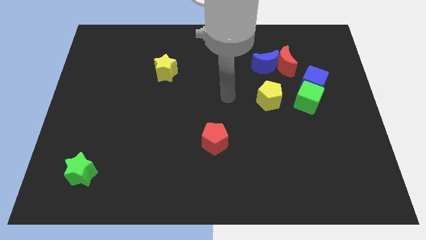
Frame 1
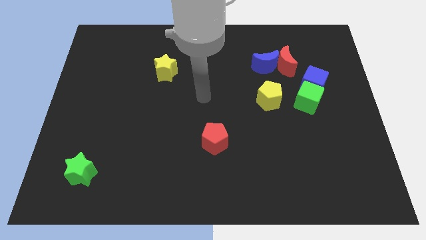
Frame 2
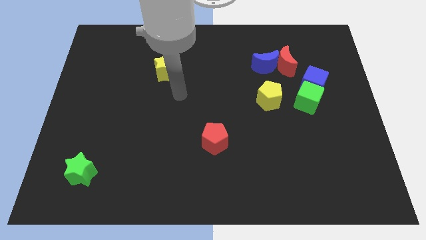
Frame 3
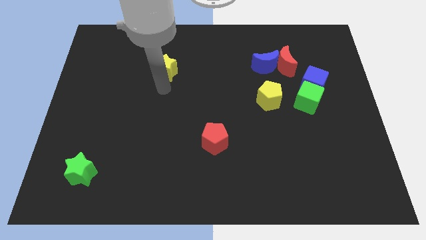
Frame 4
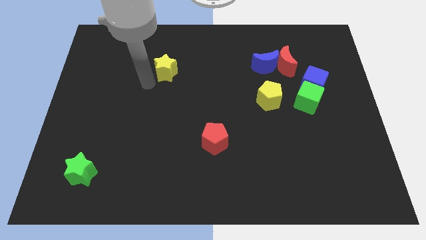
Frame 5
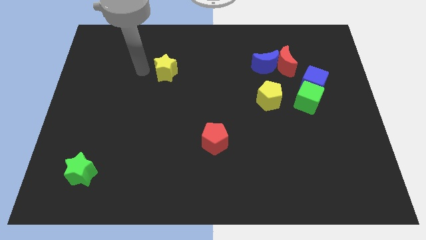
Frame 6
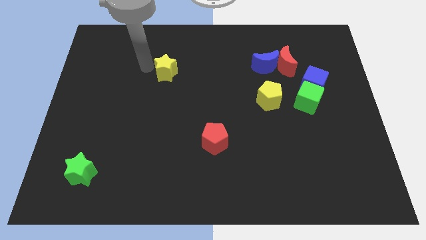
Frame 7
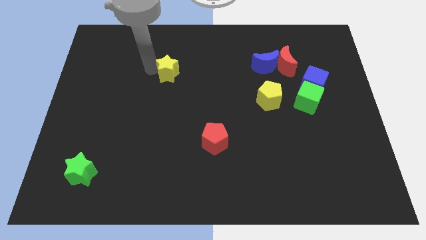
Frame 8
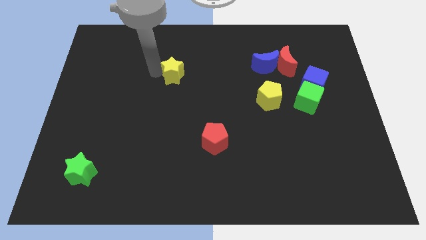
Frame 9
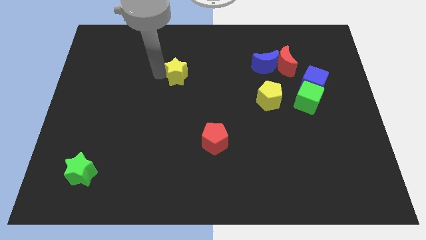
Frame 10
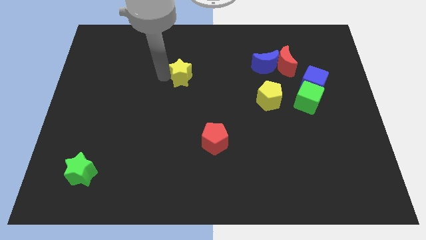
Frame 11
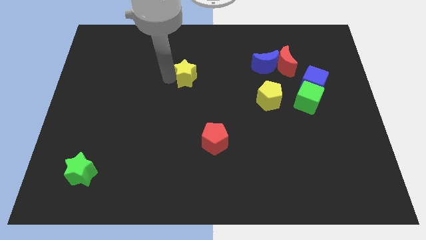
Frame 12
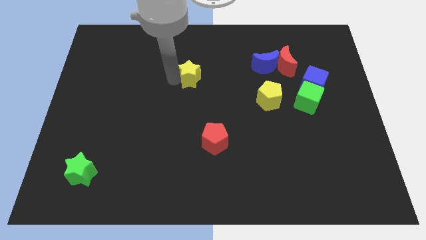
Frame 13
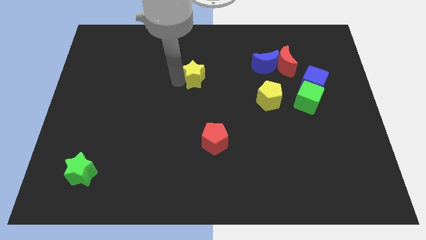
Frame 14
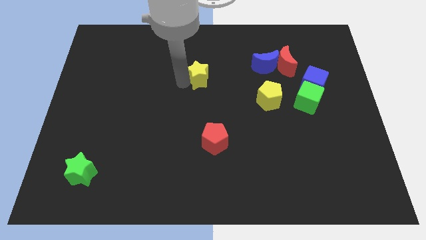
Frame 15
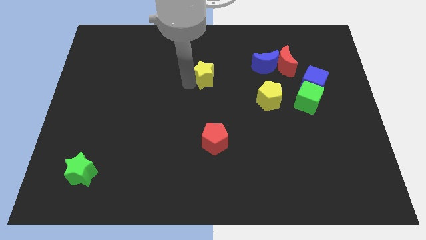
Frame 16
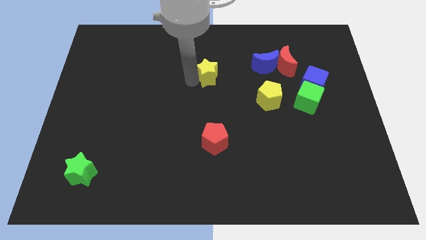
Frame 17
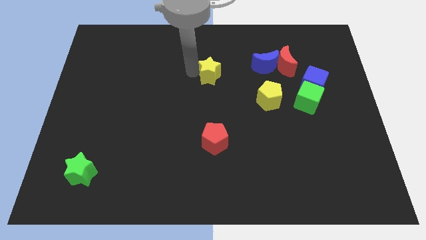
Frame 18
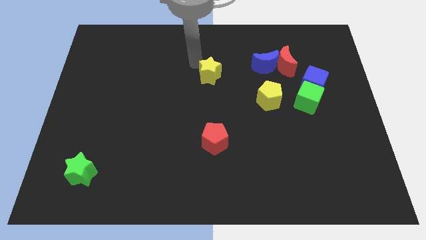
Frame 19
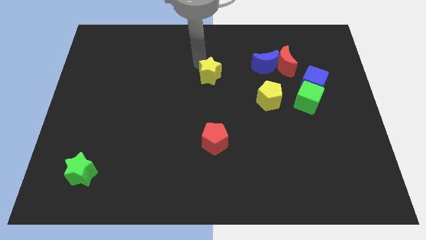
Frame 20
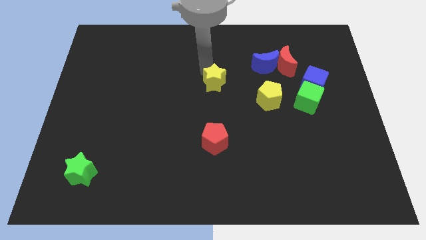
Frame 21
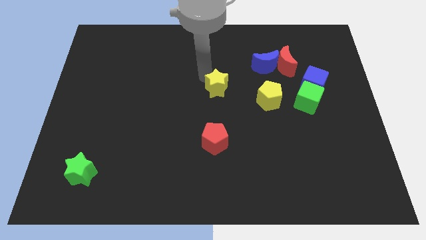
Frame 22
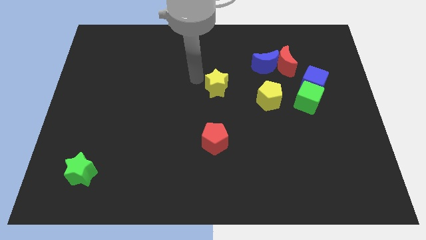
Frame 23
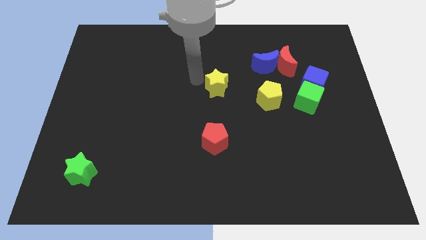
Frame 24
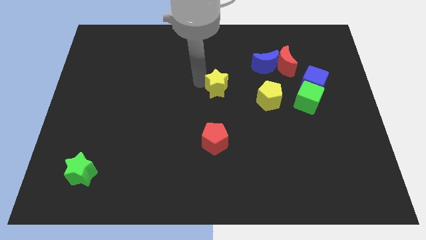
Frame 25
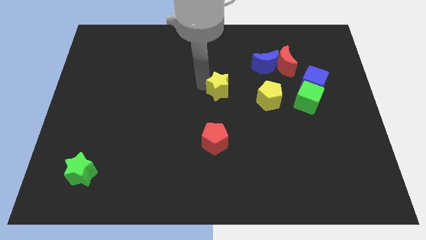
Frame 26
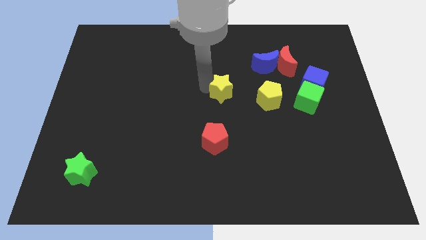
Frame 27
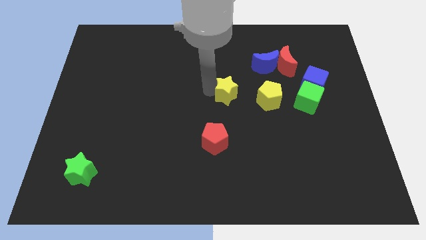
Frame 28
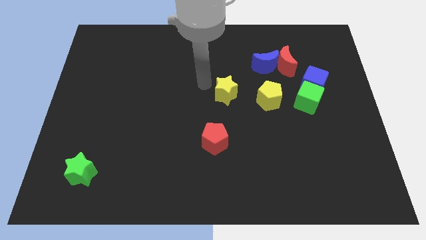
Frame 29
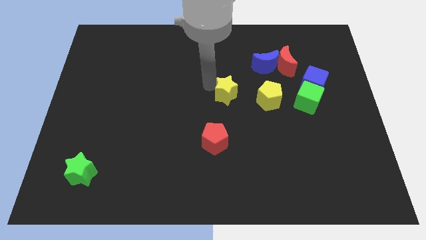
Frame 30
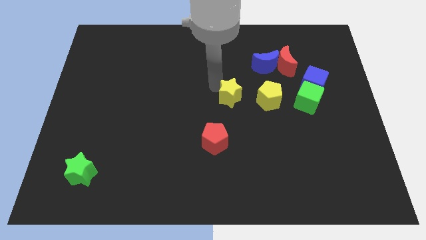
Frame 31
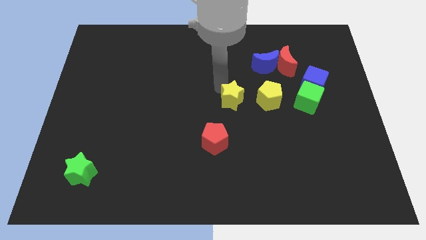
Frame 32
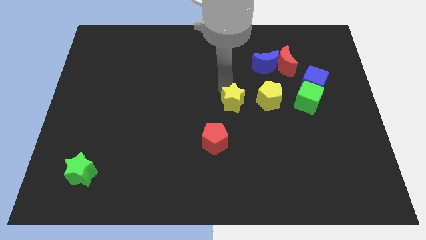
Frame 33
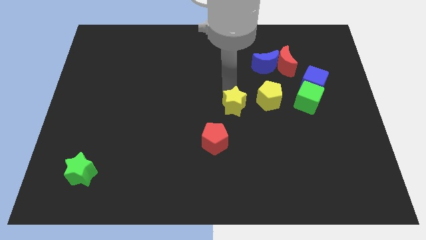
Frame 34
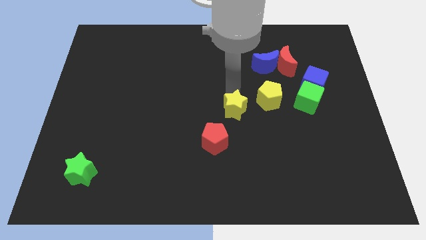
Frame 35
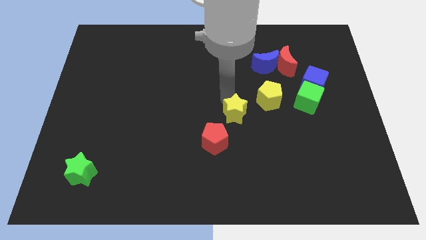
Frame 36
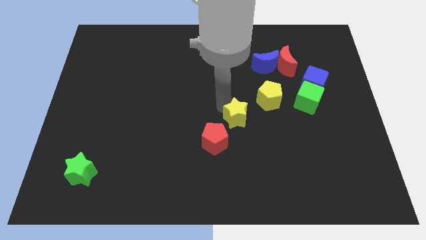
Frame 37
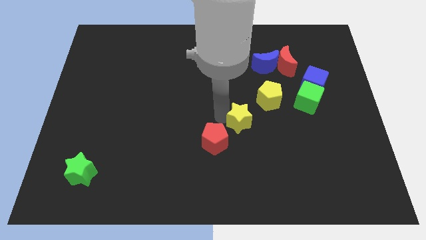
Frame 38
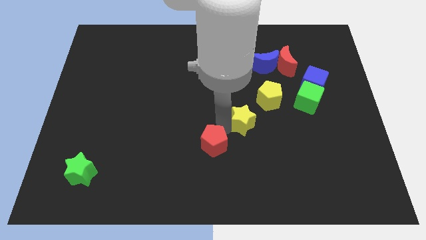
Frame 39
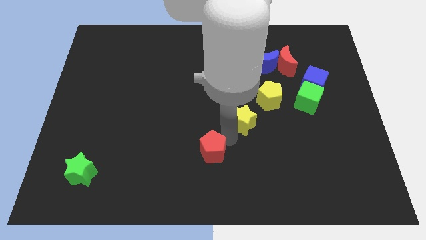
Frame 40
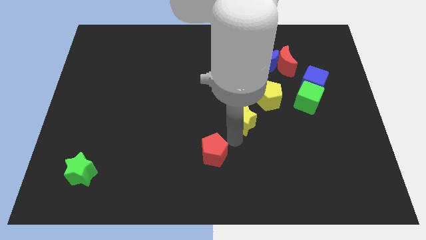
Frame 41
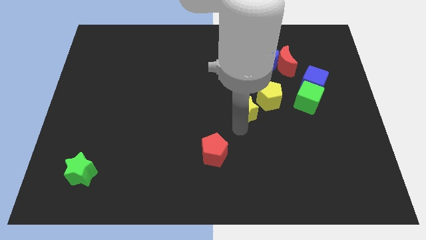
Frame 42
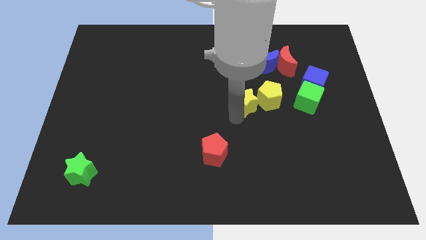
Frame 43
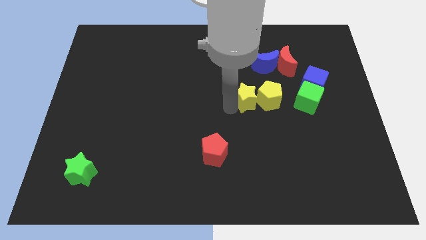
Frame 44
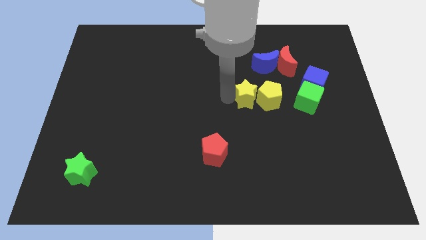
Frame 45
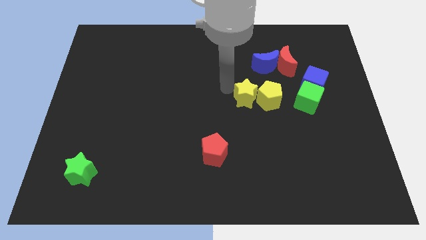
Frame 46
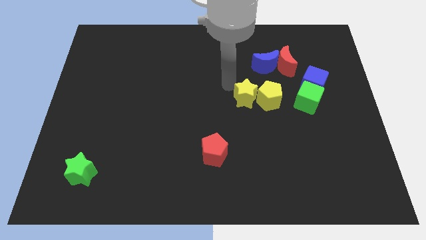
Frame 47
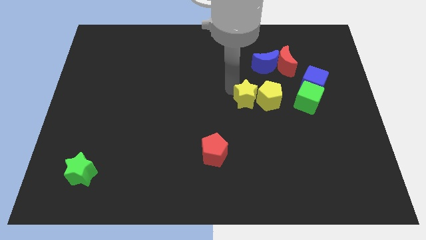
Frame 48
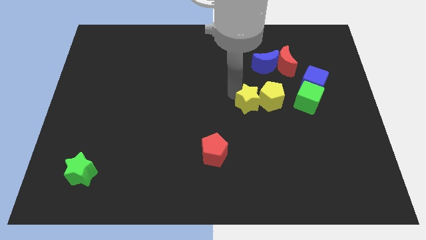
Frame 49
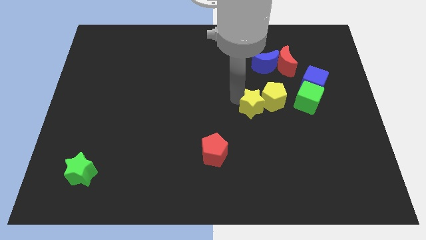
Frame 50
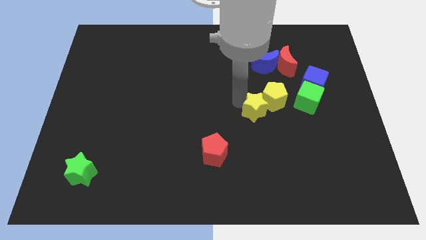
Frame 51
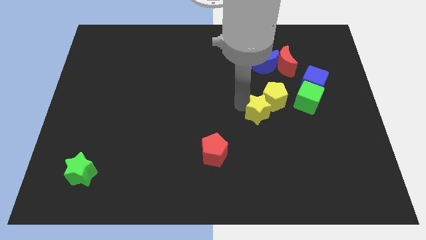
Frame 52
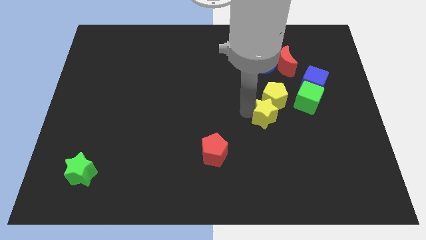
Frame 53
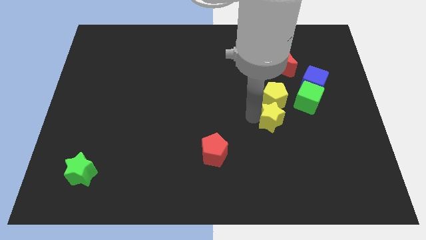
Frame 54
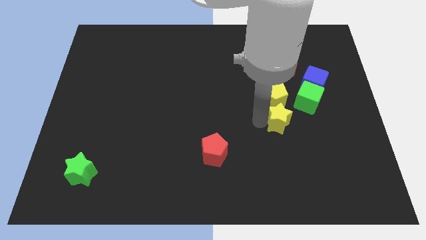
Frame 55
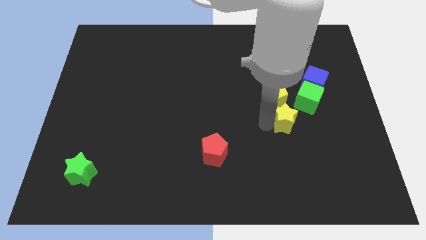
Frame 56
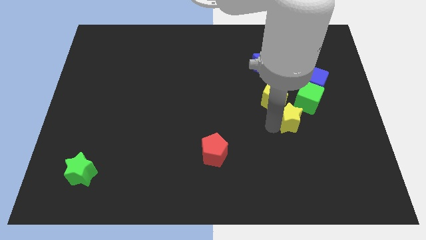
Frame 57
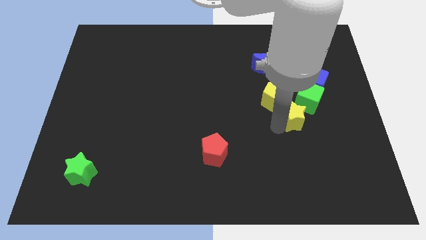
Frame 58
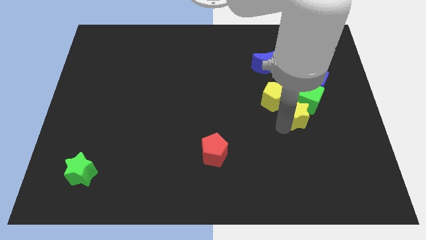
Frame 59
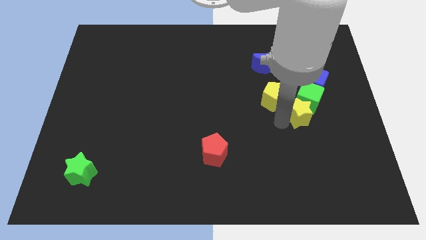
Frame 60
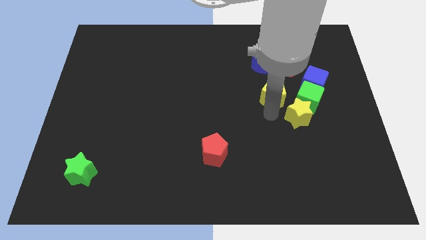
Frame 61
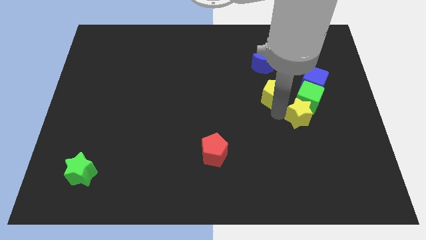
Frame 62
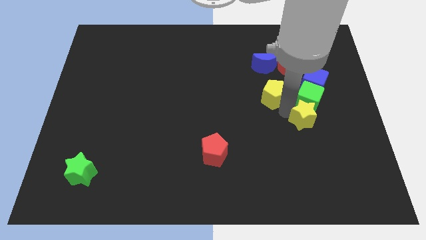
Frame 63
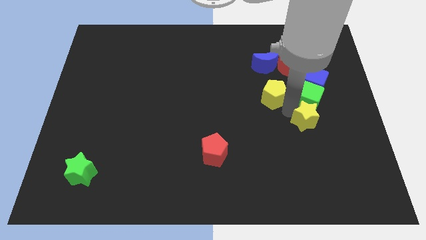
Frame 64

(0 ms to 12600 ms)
put the yellow star to the bottom right of the green cube
